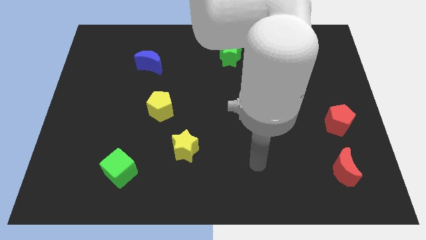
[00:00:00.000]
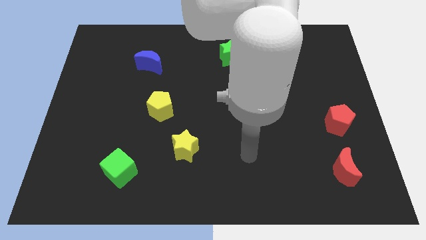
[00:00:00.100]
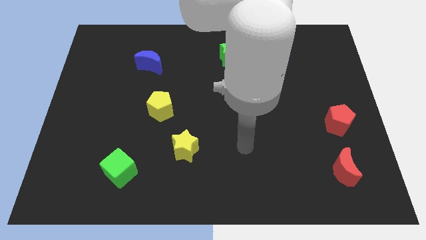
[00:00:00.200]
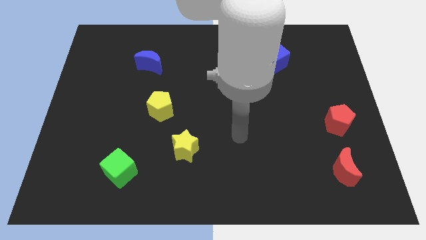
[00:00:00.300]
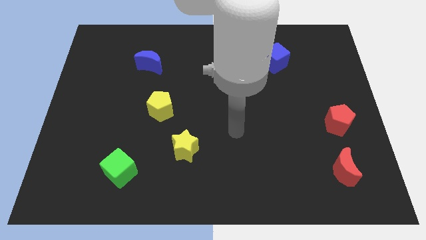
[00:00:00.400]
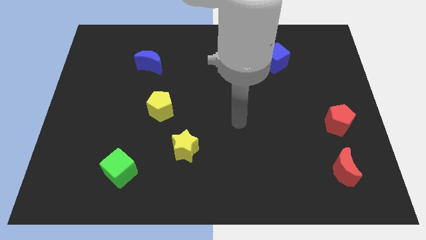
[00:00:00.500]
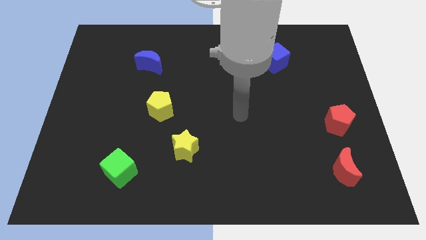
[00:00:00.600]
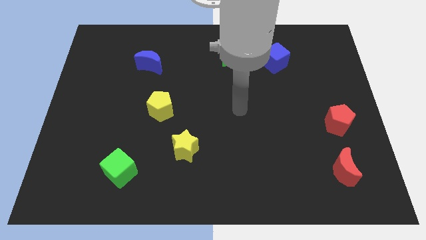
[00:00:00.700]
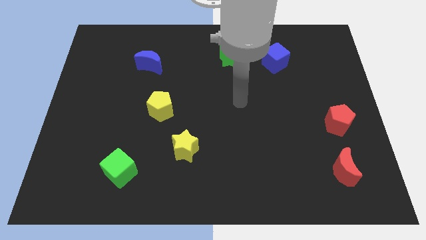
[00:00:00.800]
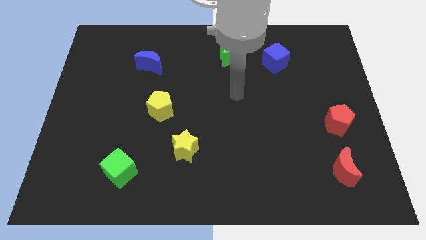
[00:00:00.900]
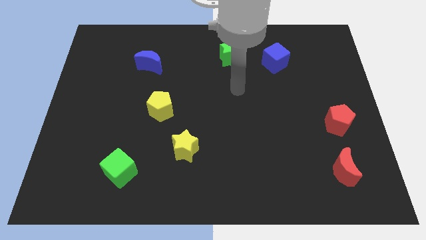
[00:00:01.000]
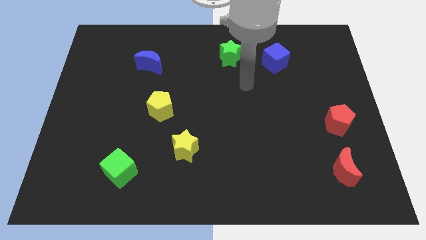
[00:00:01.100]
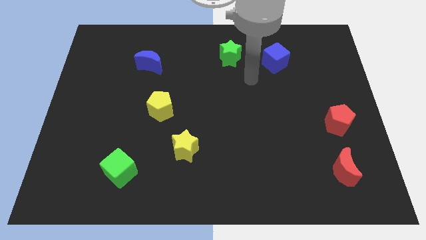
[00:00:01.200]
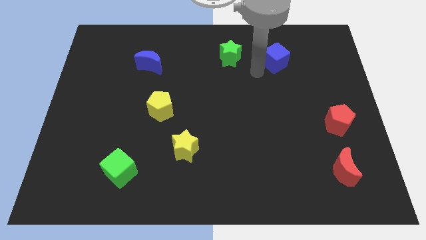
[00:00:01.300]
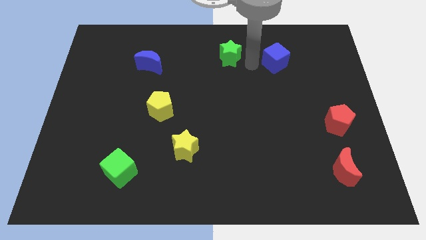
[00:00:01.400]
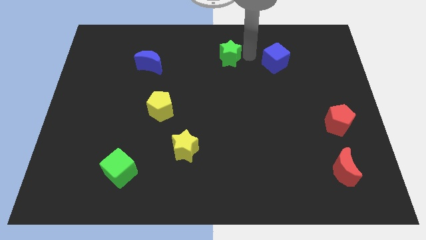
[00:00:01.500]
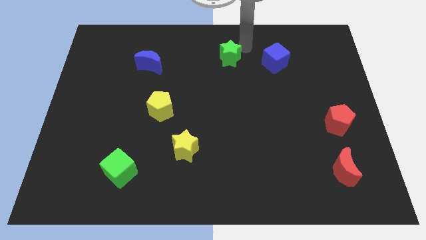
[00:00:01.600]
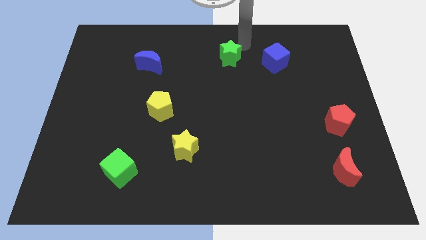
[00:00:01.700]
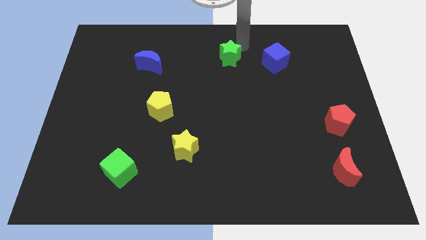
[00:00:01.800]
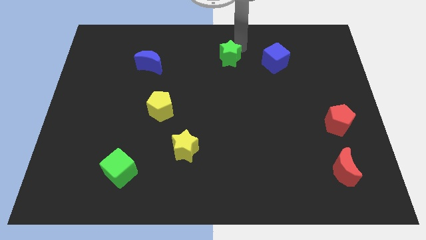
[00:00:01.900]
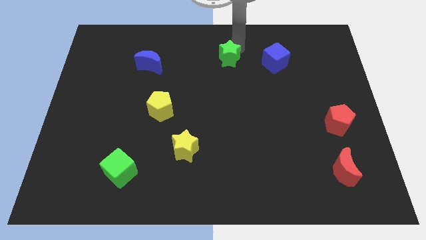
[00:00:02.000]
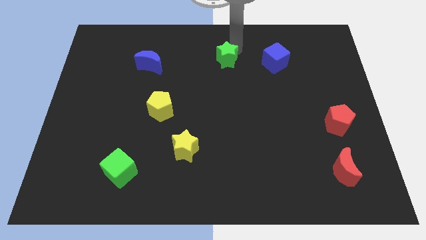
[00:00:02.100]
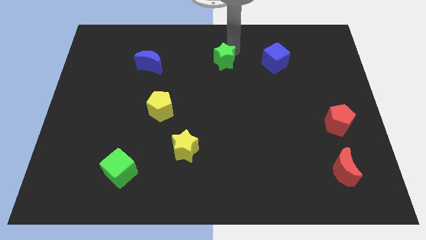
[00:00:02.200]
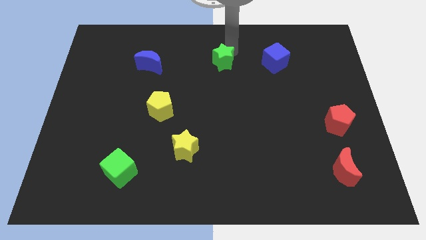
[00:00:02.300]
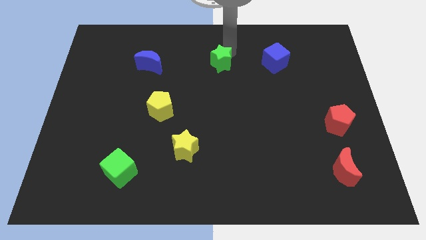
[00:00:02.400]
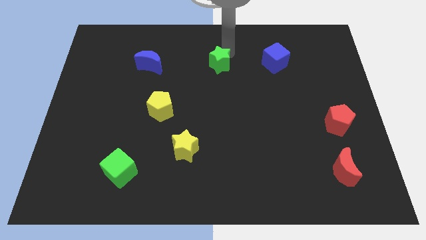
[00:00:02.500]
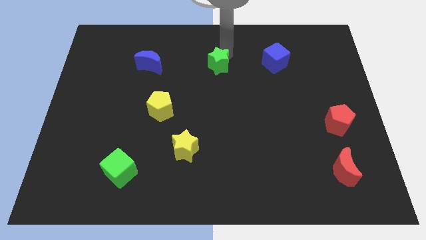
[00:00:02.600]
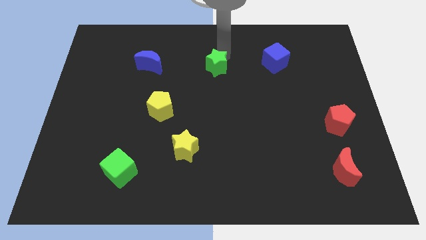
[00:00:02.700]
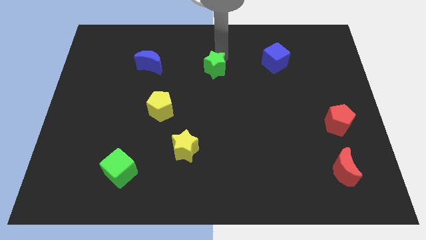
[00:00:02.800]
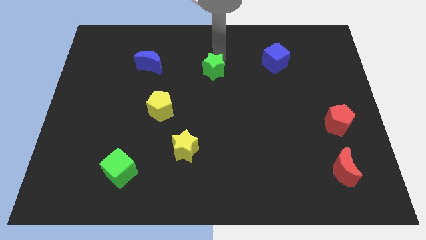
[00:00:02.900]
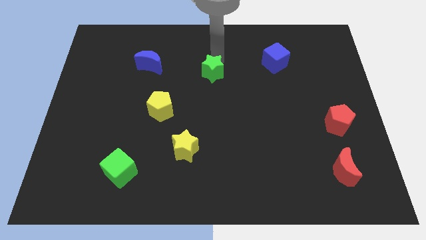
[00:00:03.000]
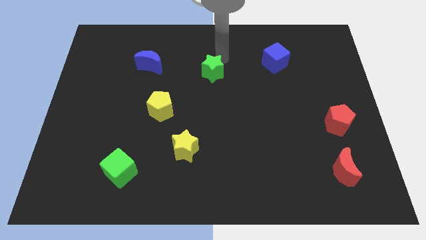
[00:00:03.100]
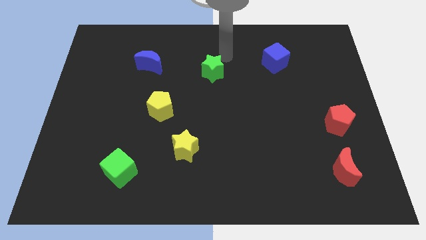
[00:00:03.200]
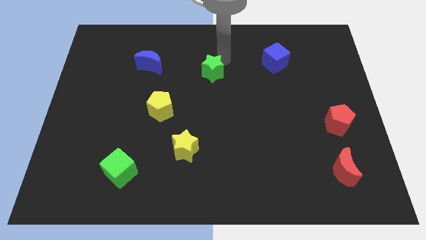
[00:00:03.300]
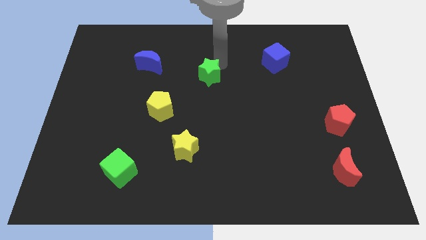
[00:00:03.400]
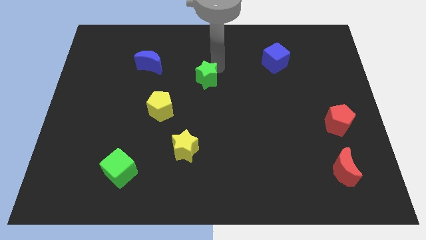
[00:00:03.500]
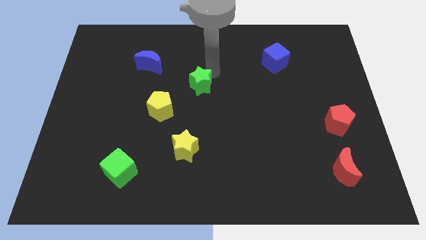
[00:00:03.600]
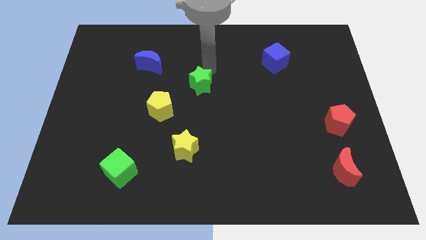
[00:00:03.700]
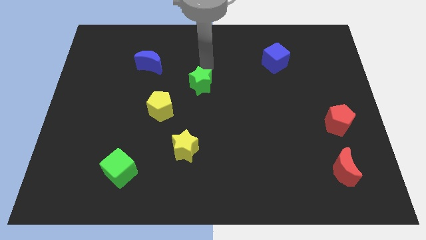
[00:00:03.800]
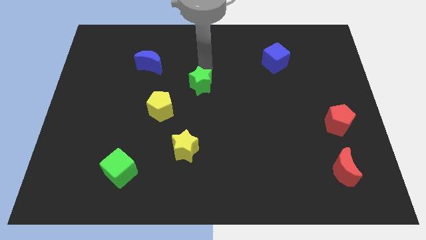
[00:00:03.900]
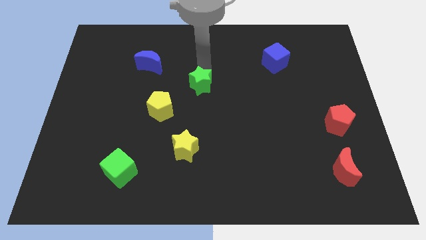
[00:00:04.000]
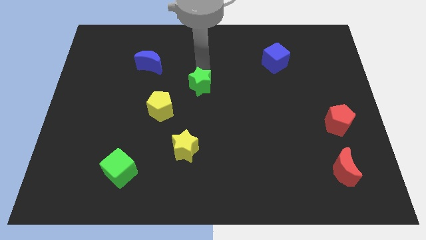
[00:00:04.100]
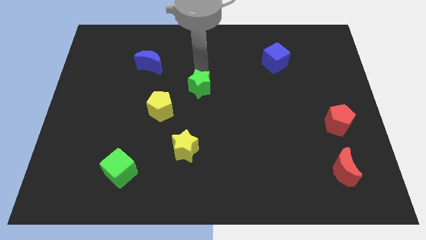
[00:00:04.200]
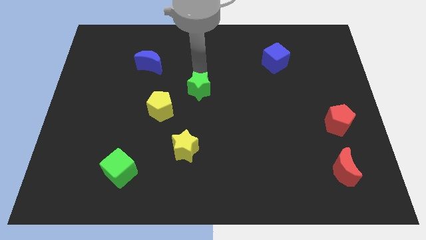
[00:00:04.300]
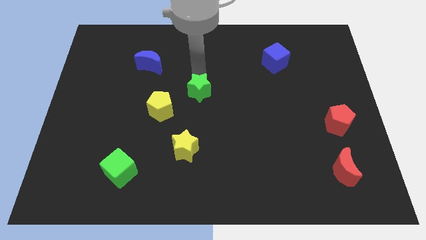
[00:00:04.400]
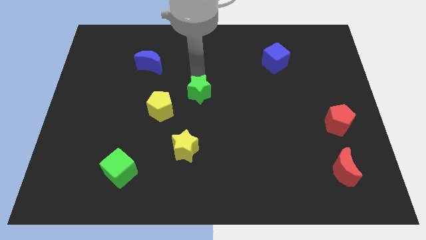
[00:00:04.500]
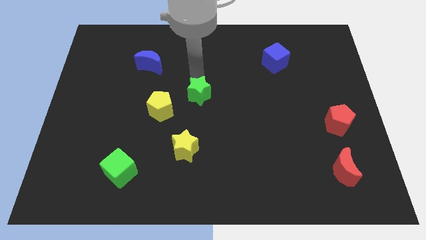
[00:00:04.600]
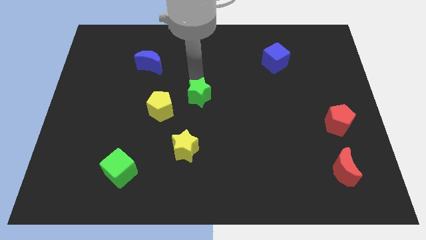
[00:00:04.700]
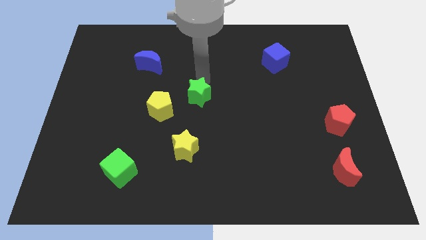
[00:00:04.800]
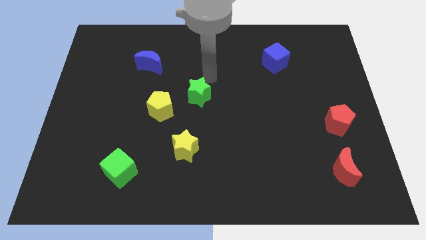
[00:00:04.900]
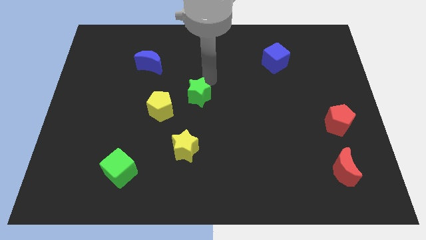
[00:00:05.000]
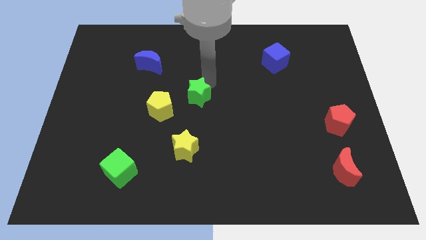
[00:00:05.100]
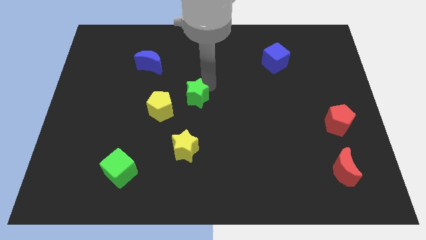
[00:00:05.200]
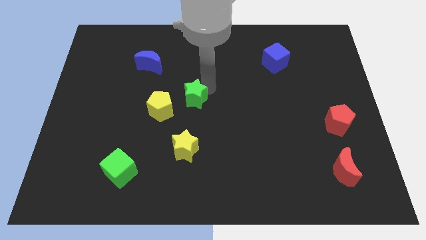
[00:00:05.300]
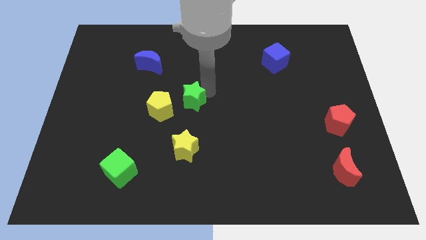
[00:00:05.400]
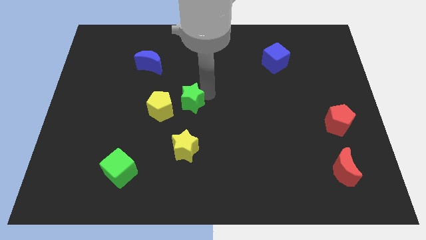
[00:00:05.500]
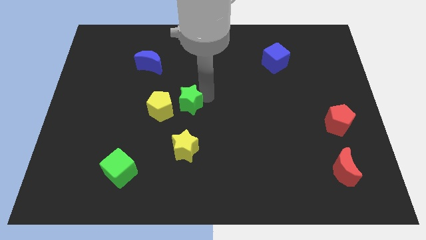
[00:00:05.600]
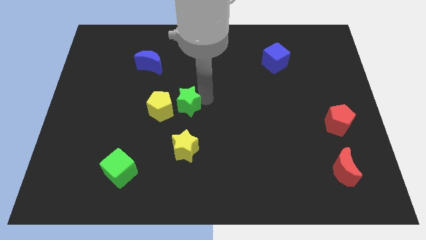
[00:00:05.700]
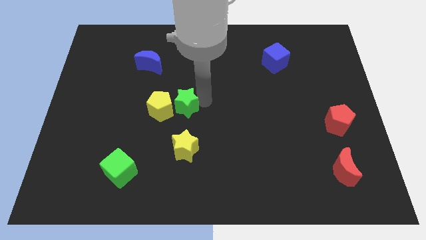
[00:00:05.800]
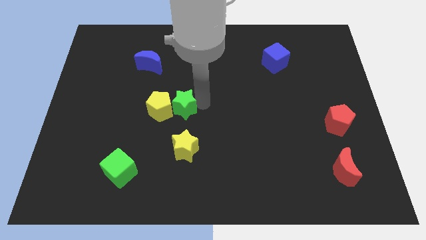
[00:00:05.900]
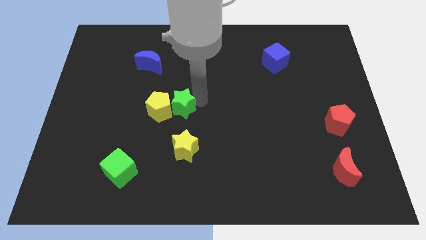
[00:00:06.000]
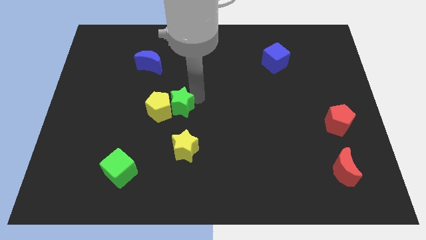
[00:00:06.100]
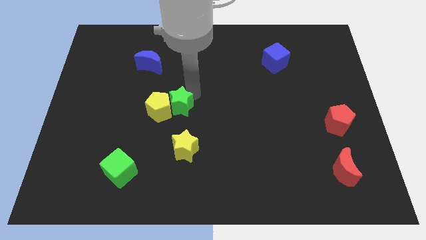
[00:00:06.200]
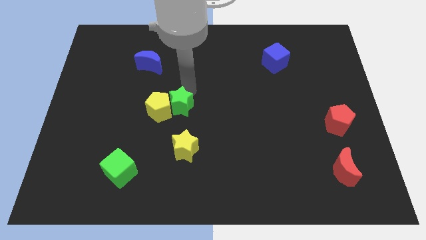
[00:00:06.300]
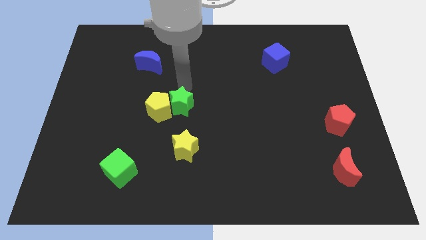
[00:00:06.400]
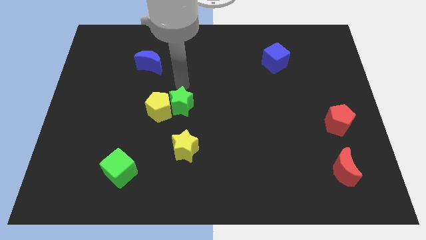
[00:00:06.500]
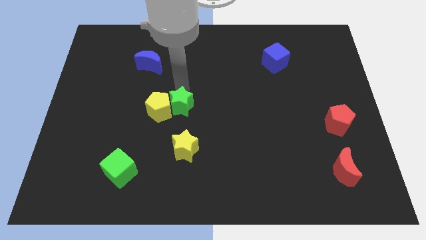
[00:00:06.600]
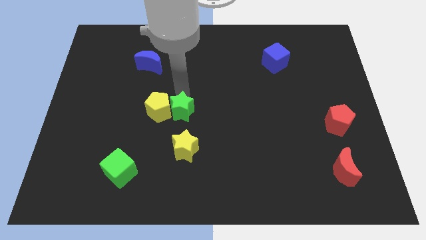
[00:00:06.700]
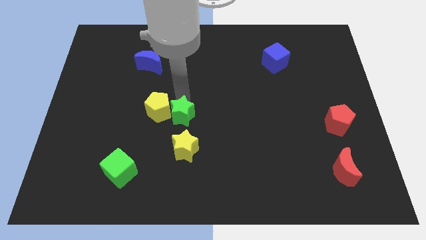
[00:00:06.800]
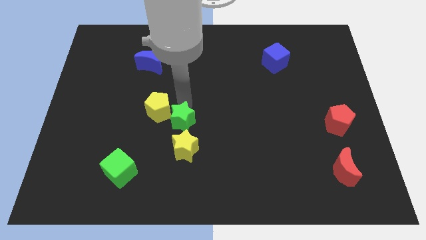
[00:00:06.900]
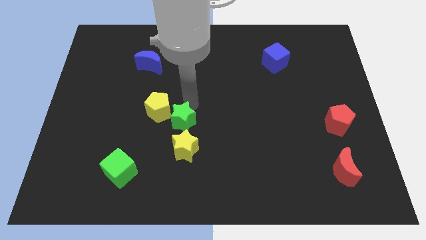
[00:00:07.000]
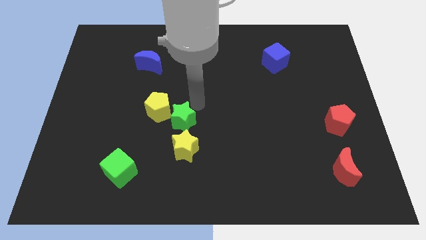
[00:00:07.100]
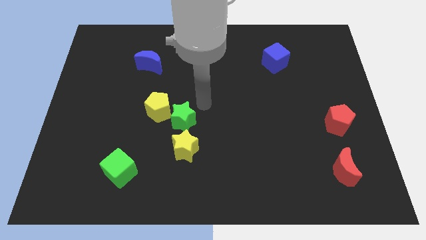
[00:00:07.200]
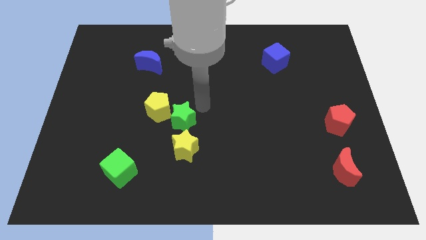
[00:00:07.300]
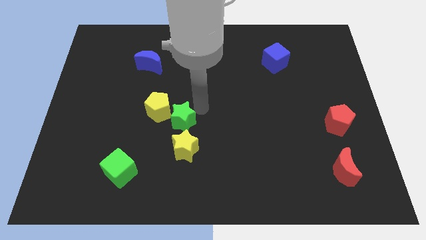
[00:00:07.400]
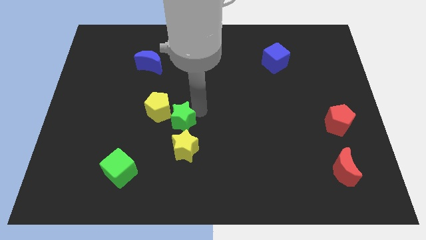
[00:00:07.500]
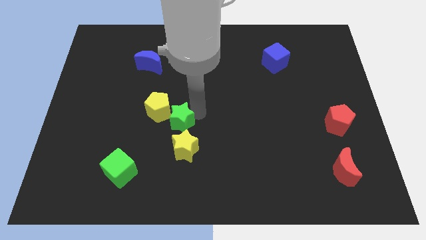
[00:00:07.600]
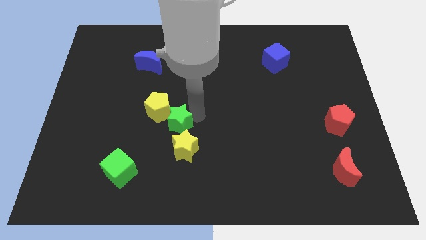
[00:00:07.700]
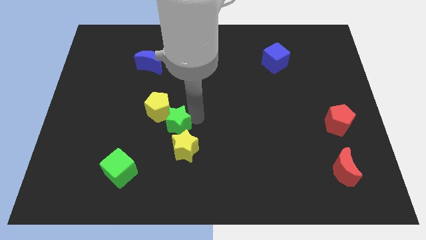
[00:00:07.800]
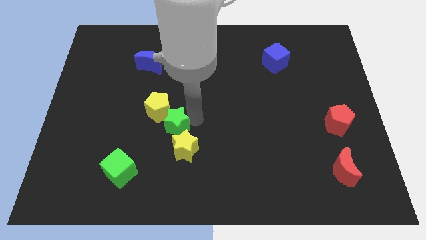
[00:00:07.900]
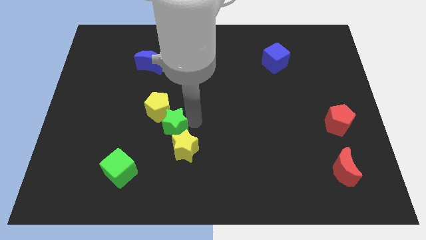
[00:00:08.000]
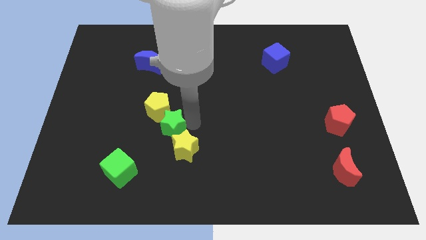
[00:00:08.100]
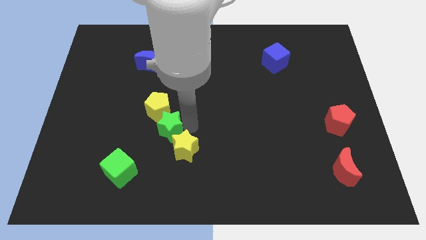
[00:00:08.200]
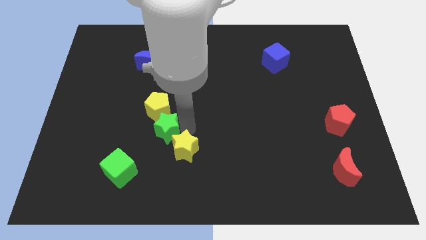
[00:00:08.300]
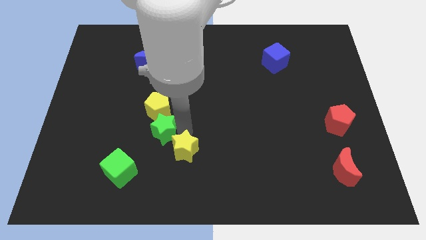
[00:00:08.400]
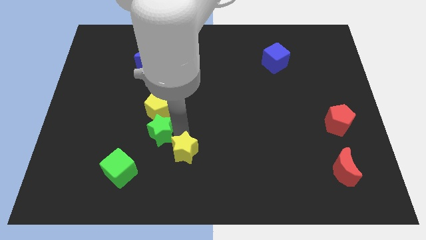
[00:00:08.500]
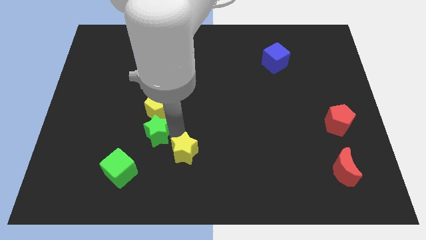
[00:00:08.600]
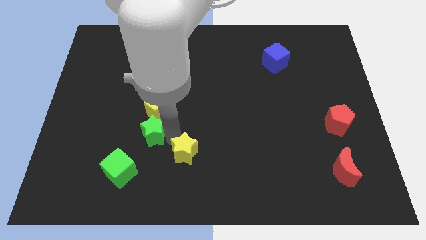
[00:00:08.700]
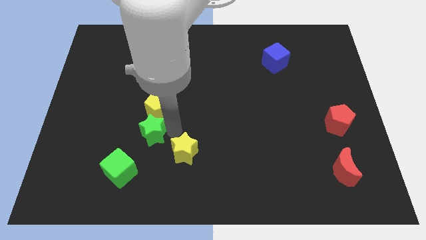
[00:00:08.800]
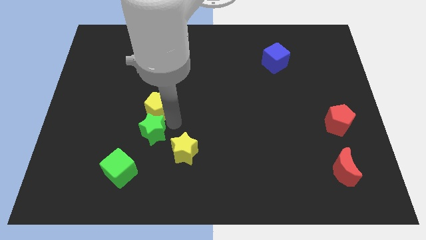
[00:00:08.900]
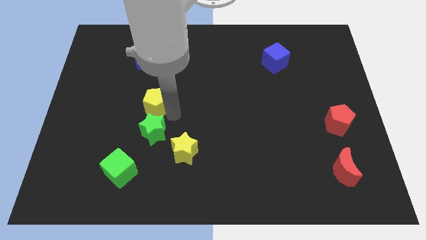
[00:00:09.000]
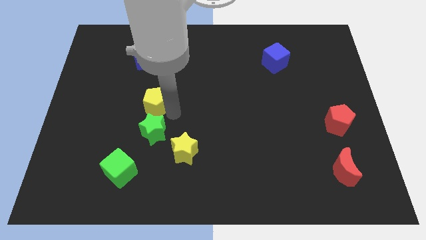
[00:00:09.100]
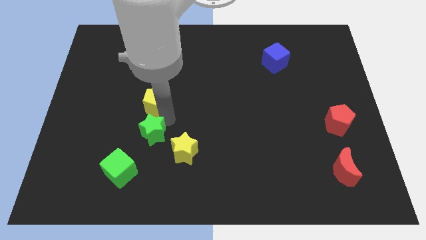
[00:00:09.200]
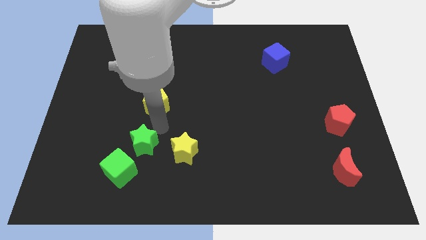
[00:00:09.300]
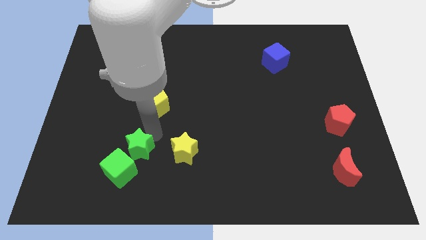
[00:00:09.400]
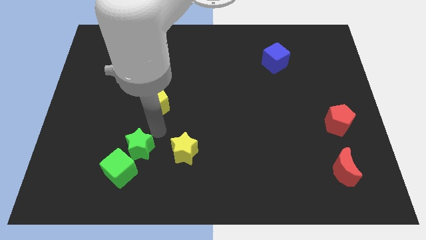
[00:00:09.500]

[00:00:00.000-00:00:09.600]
put the green star close to the green cube
